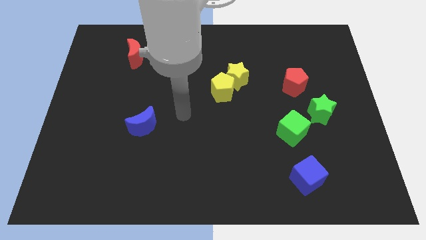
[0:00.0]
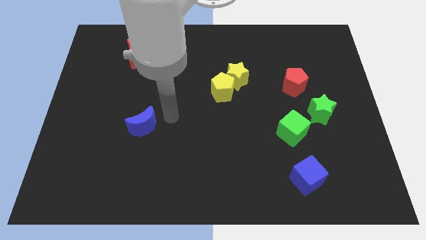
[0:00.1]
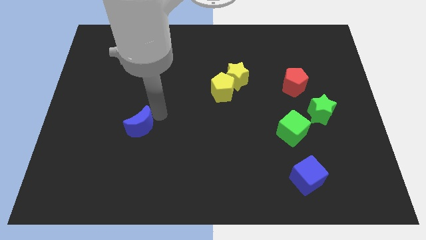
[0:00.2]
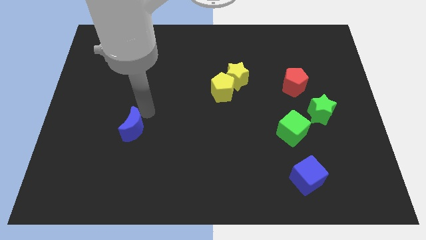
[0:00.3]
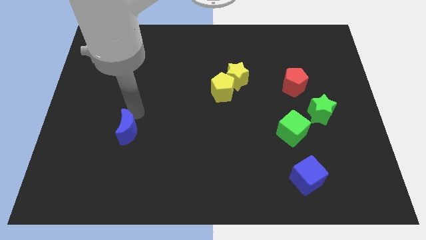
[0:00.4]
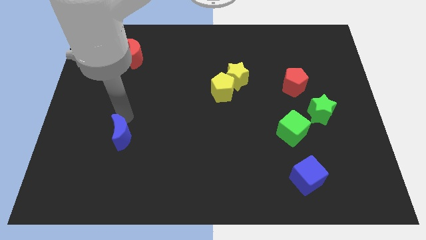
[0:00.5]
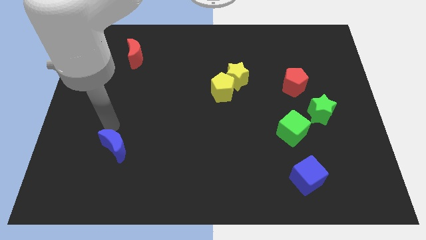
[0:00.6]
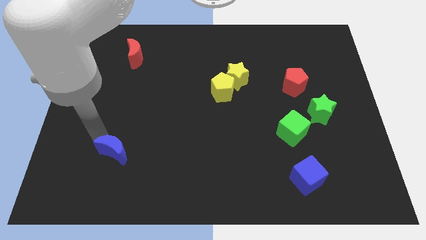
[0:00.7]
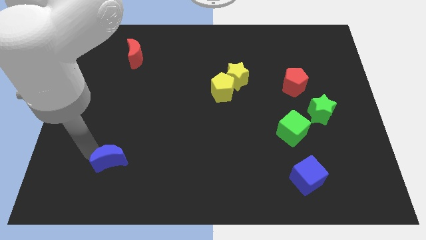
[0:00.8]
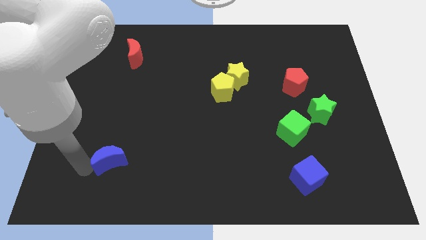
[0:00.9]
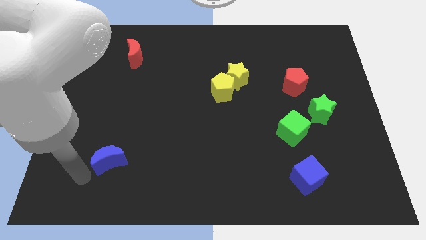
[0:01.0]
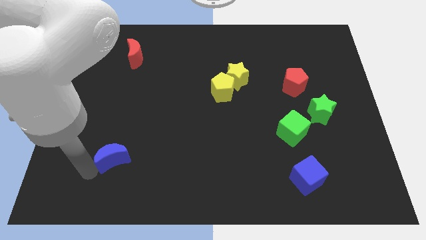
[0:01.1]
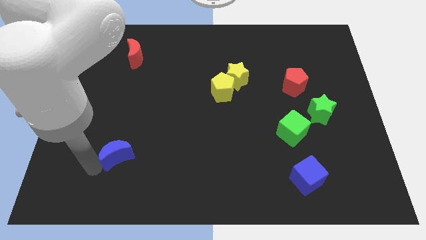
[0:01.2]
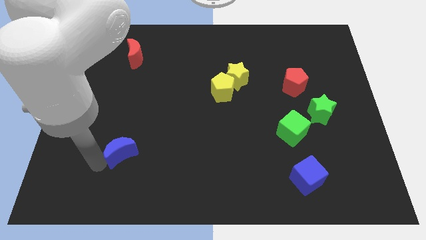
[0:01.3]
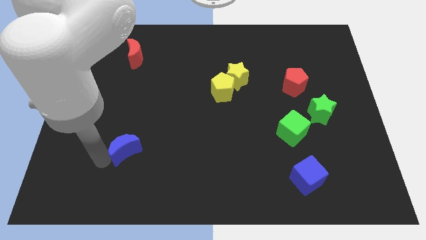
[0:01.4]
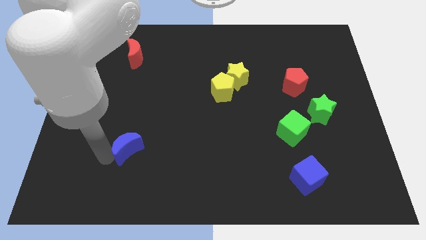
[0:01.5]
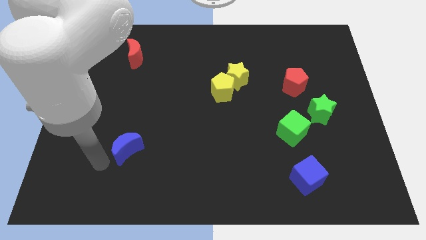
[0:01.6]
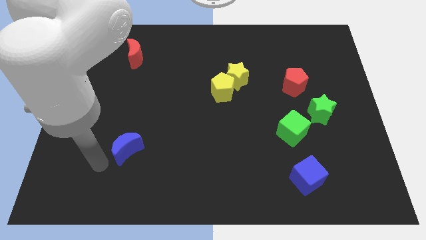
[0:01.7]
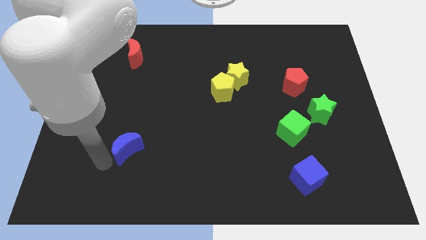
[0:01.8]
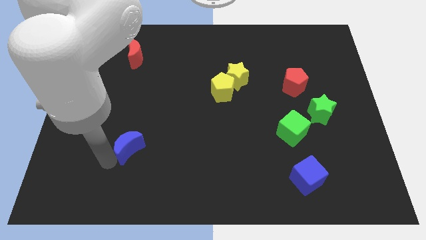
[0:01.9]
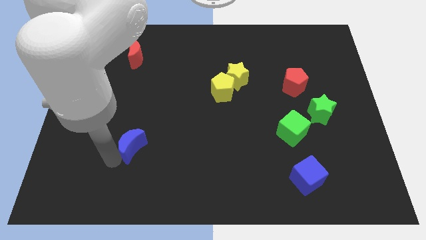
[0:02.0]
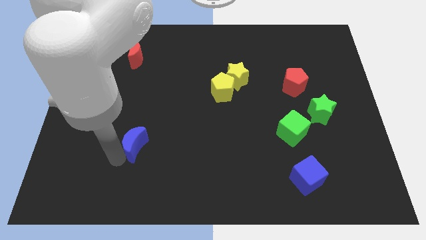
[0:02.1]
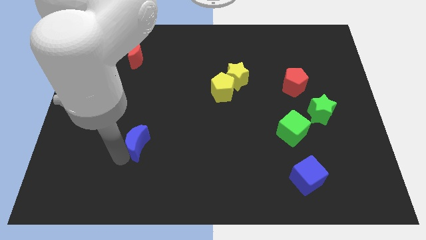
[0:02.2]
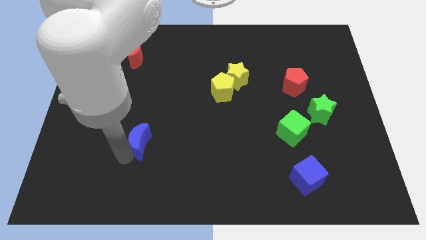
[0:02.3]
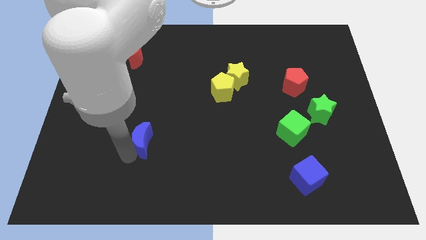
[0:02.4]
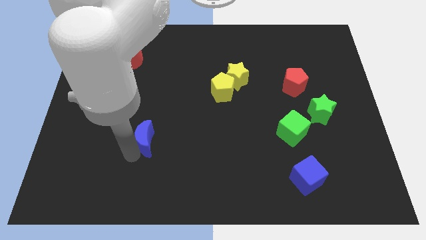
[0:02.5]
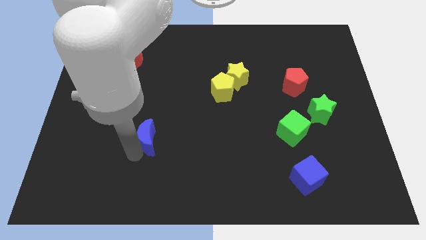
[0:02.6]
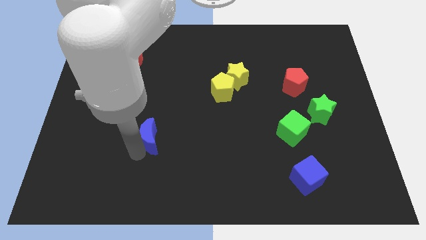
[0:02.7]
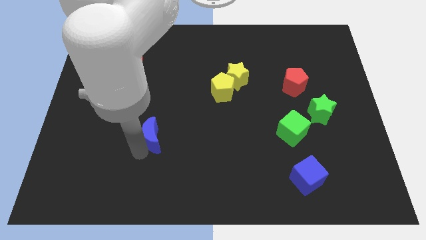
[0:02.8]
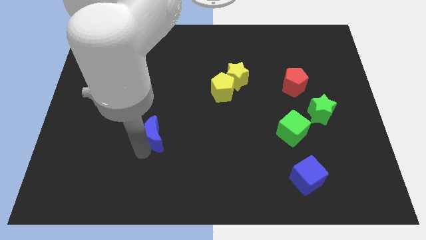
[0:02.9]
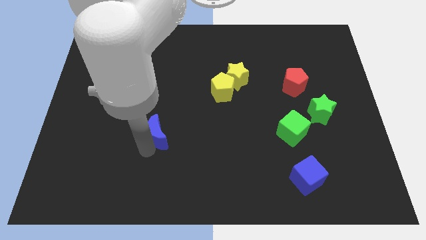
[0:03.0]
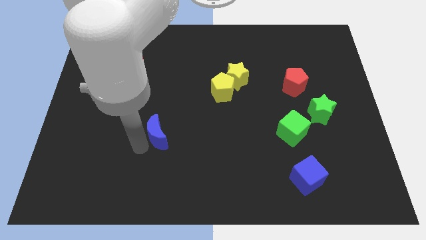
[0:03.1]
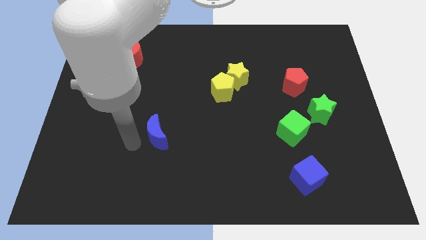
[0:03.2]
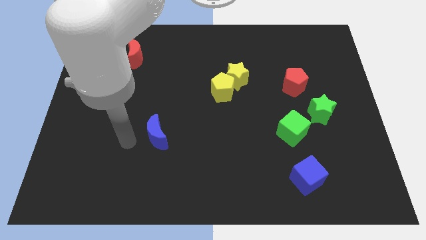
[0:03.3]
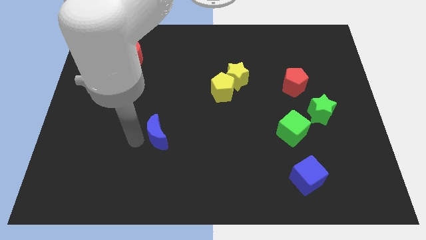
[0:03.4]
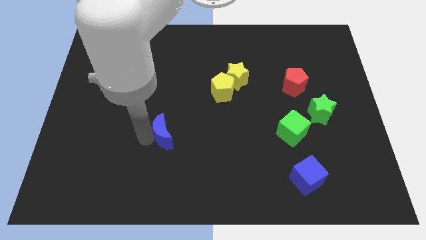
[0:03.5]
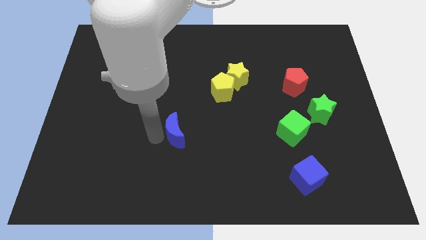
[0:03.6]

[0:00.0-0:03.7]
push the blue moon slightly to the right

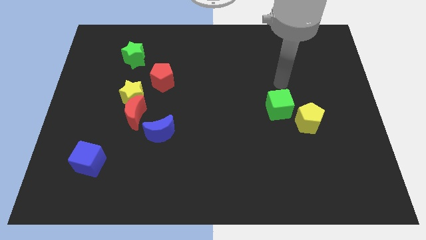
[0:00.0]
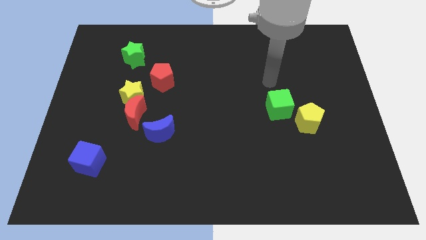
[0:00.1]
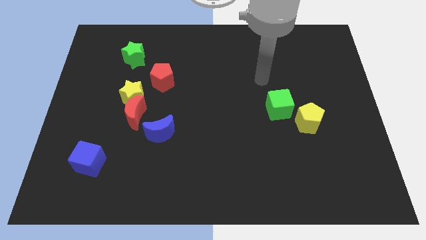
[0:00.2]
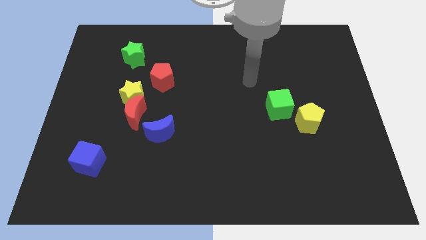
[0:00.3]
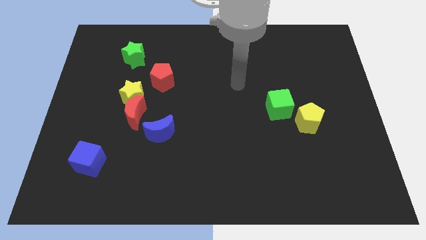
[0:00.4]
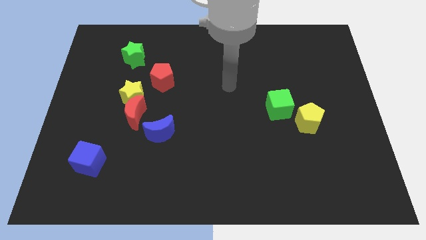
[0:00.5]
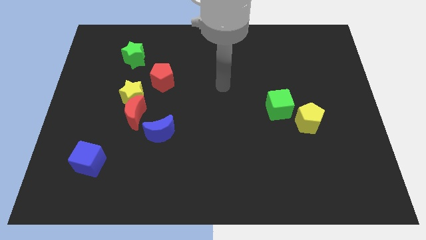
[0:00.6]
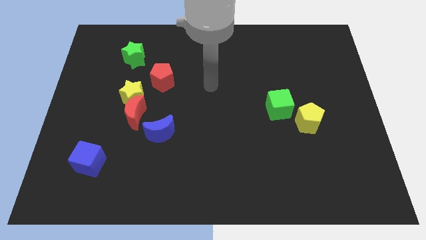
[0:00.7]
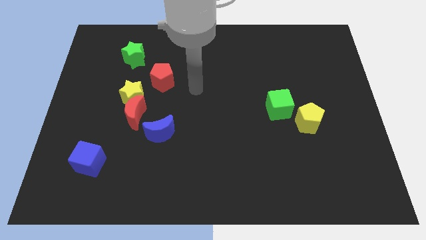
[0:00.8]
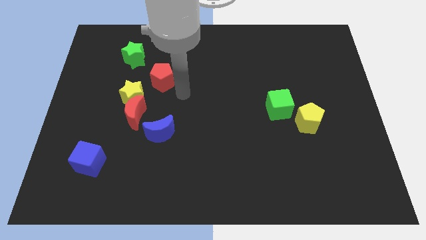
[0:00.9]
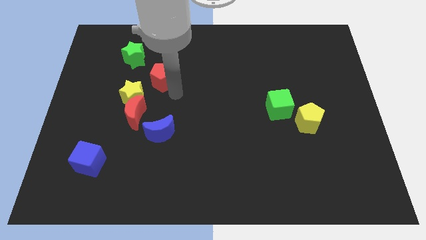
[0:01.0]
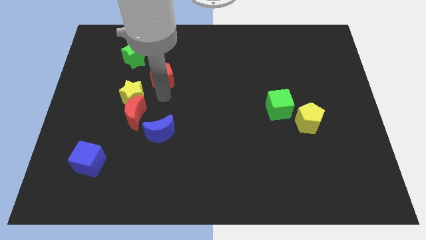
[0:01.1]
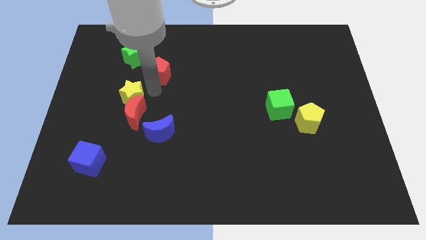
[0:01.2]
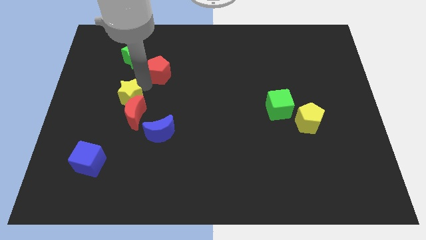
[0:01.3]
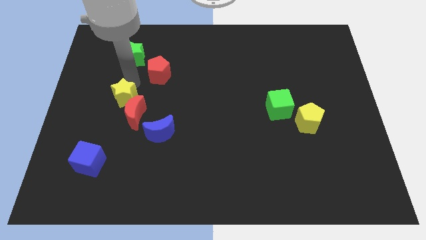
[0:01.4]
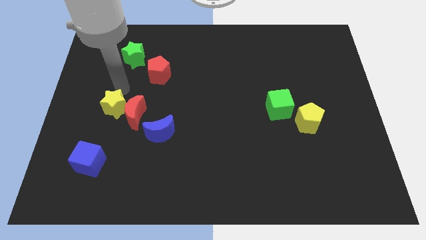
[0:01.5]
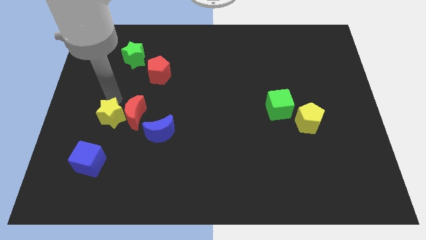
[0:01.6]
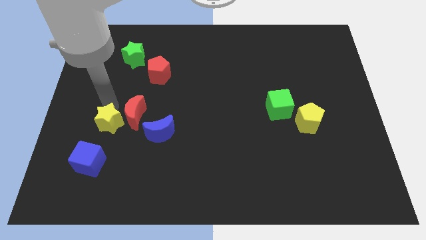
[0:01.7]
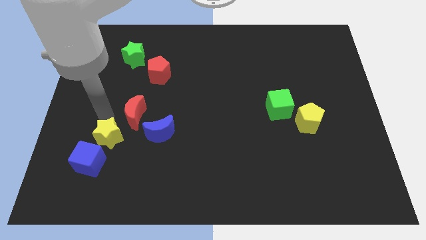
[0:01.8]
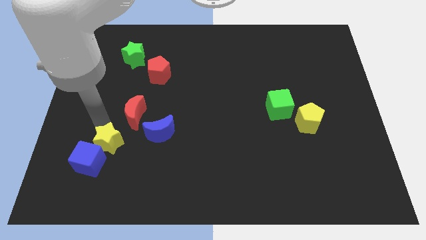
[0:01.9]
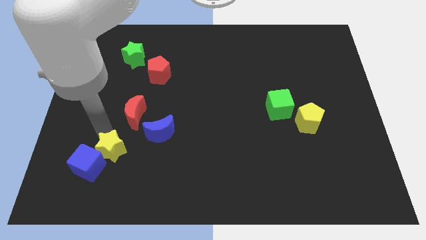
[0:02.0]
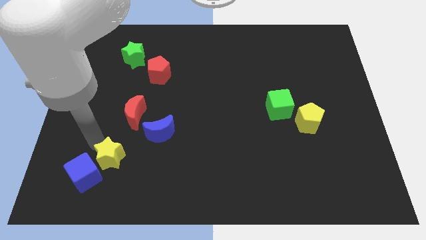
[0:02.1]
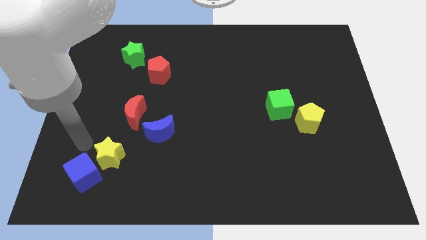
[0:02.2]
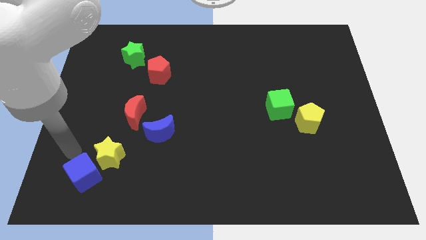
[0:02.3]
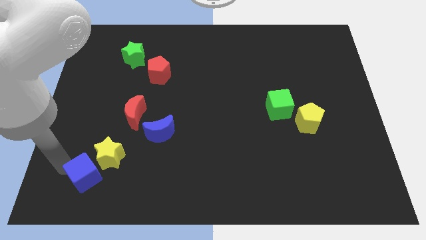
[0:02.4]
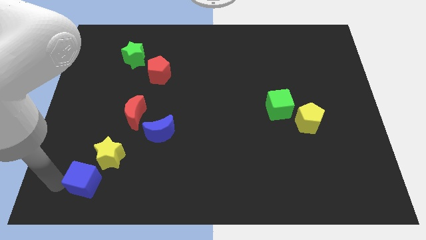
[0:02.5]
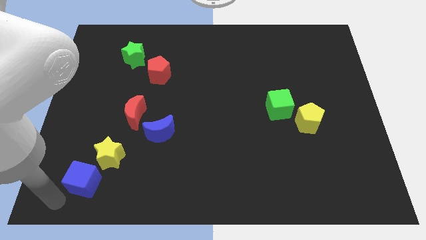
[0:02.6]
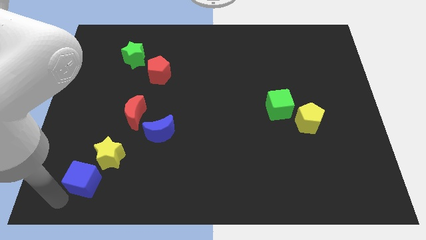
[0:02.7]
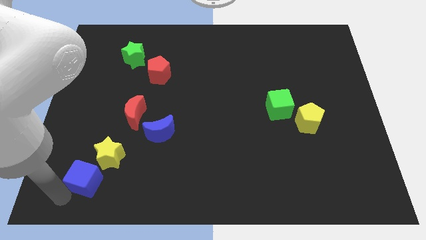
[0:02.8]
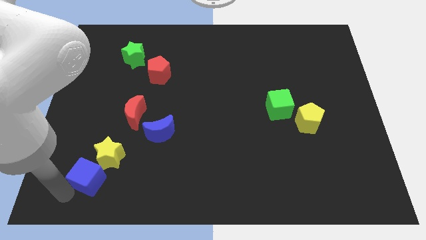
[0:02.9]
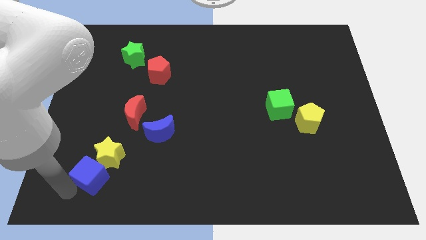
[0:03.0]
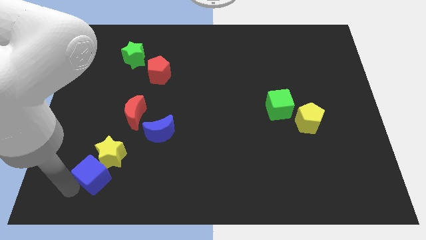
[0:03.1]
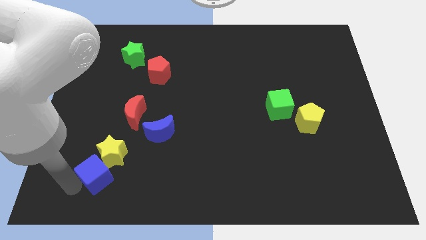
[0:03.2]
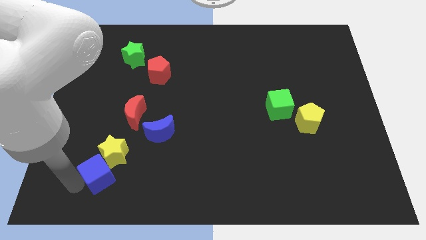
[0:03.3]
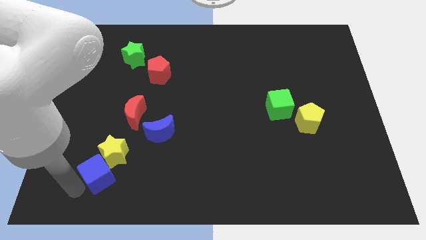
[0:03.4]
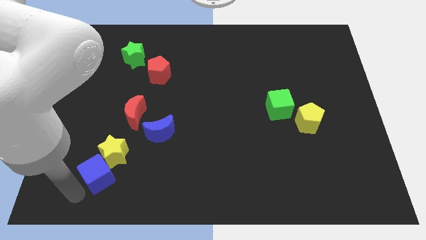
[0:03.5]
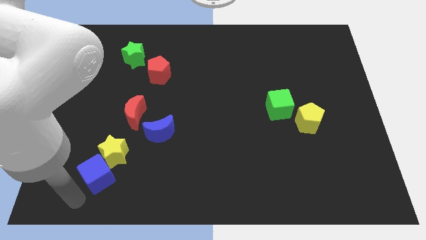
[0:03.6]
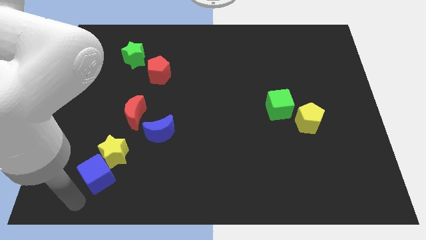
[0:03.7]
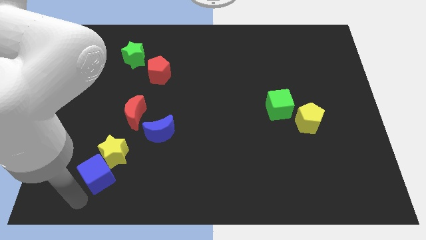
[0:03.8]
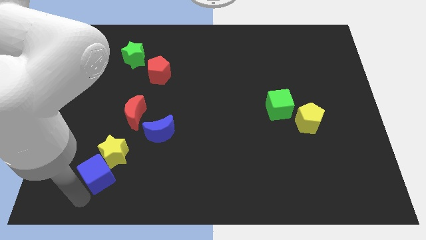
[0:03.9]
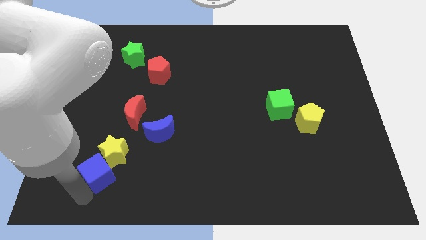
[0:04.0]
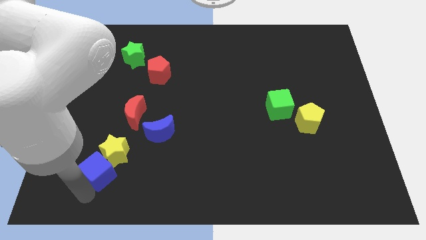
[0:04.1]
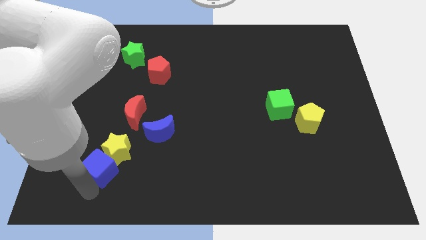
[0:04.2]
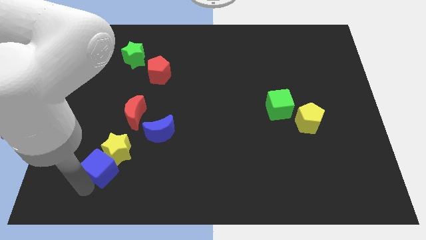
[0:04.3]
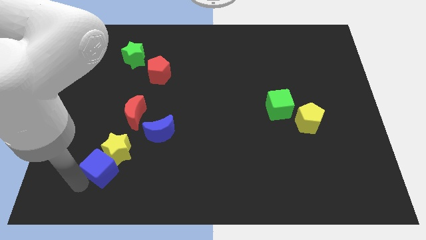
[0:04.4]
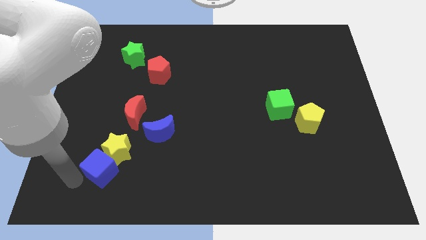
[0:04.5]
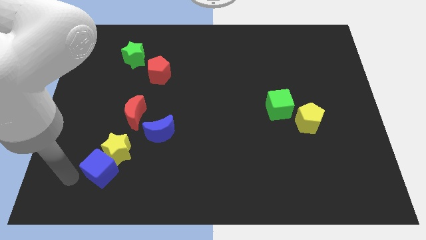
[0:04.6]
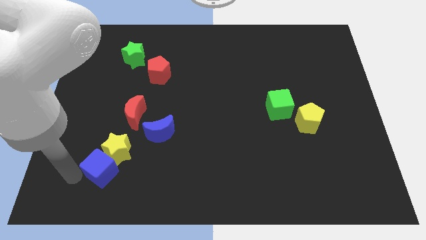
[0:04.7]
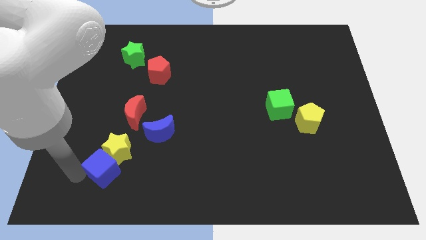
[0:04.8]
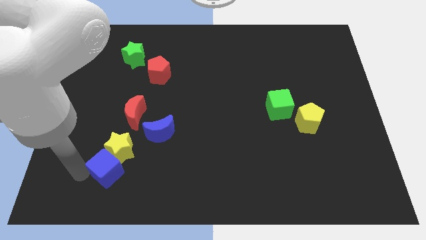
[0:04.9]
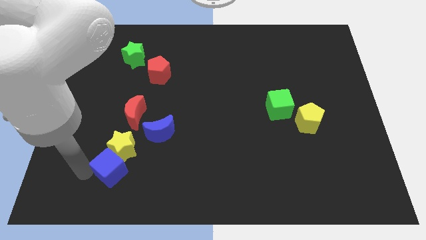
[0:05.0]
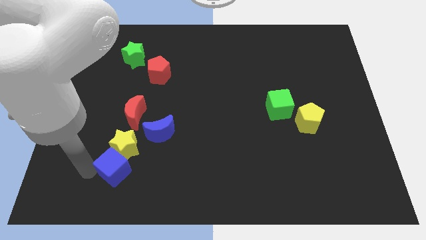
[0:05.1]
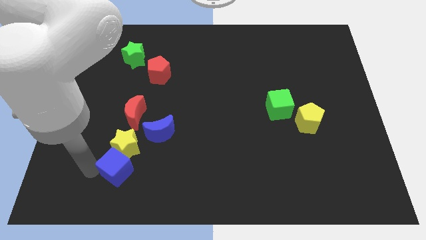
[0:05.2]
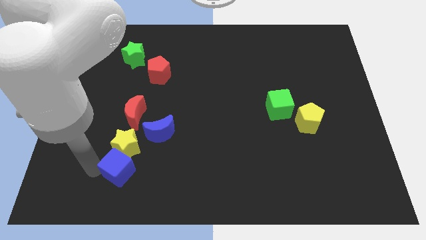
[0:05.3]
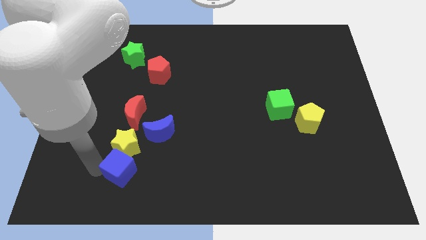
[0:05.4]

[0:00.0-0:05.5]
slightly push the blue cube to the right
